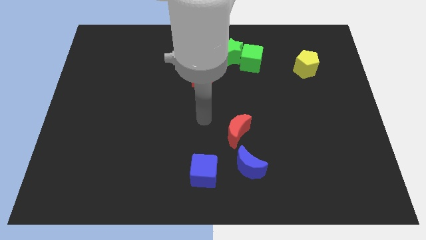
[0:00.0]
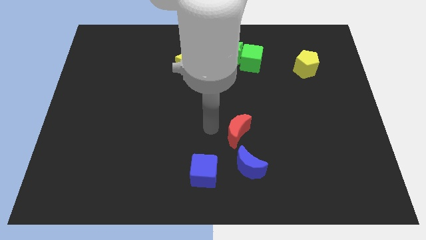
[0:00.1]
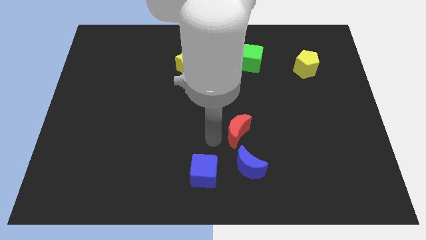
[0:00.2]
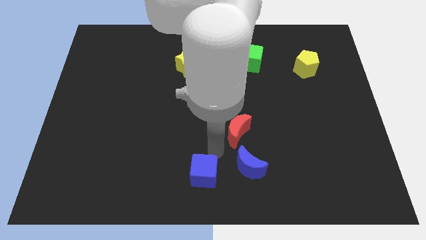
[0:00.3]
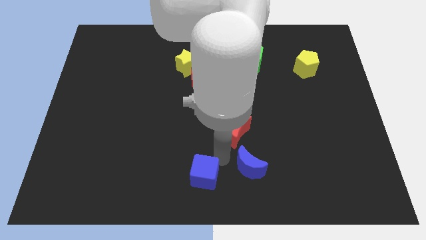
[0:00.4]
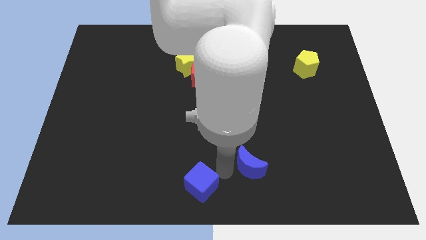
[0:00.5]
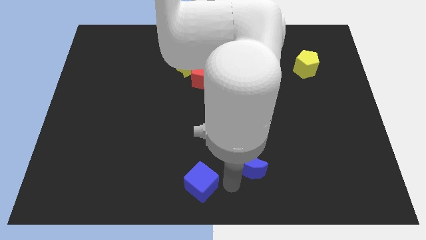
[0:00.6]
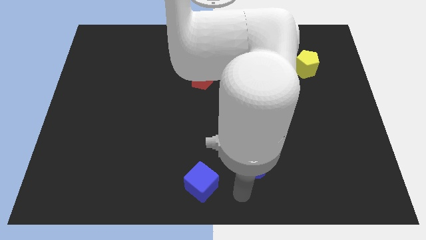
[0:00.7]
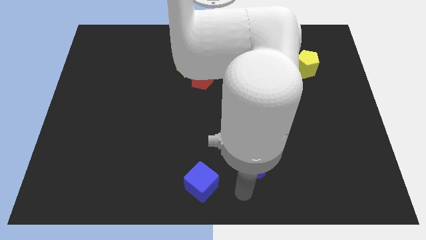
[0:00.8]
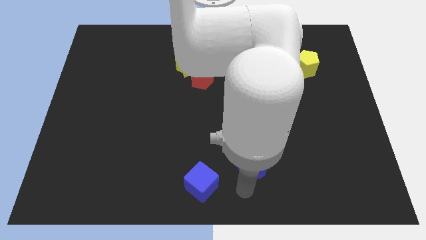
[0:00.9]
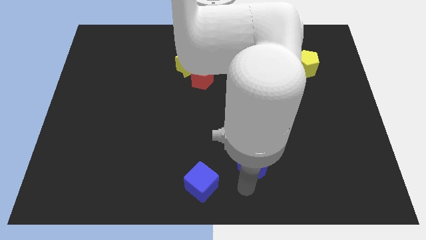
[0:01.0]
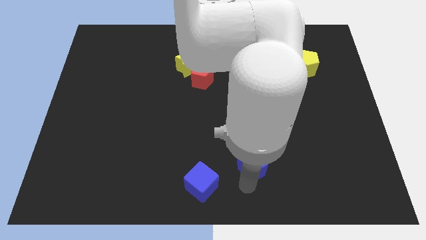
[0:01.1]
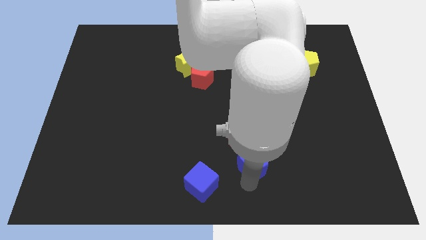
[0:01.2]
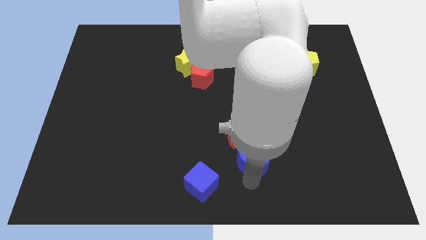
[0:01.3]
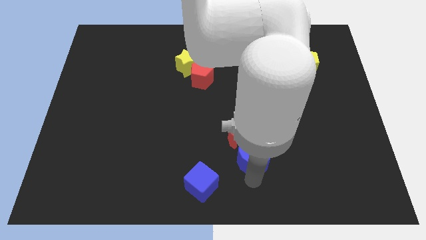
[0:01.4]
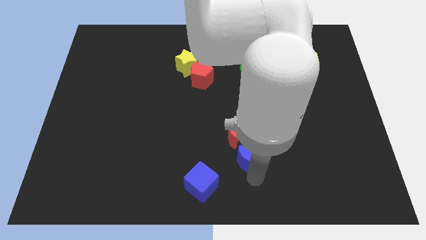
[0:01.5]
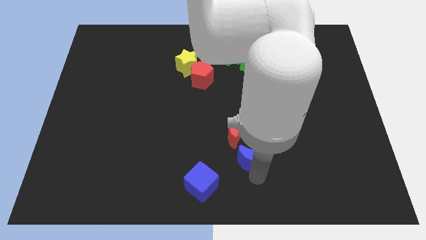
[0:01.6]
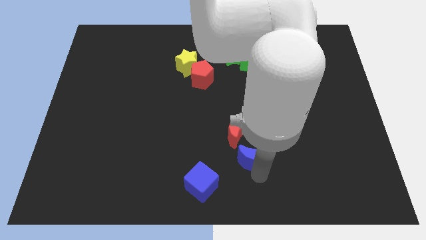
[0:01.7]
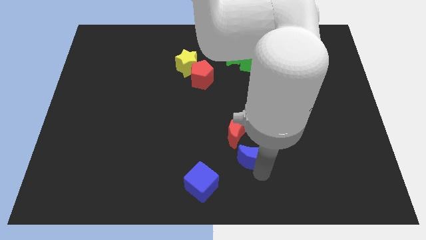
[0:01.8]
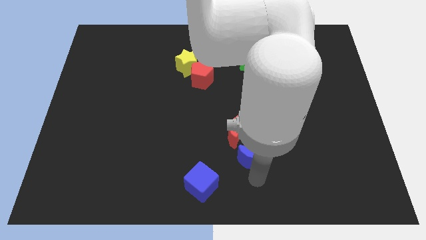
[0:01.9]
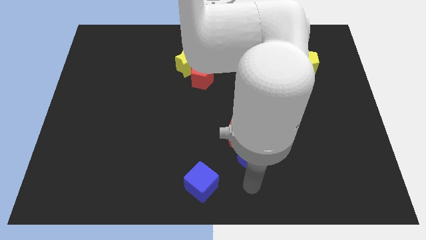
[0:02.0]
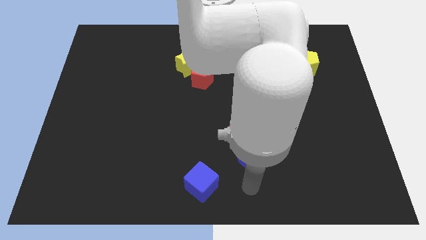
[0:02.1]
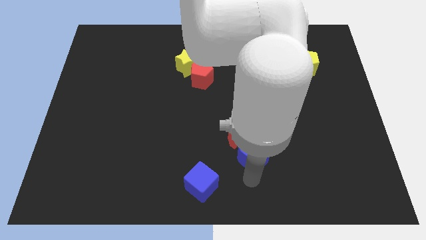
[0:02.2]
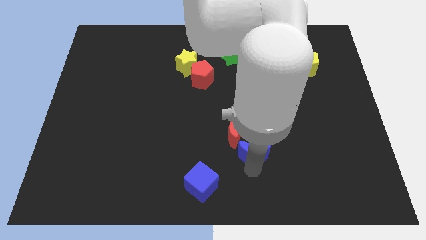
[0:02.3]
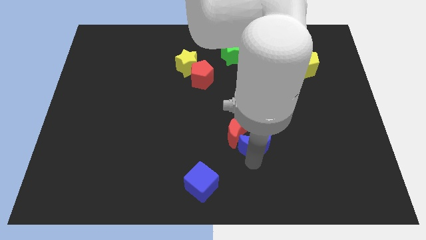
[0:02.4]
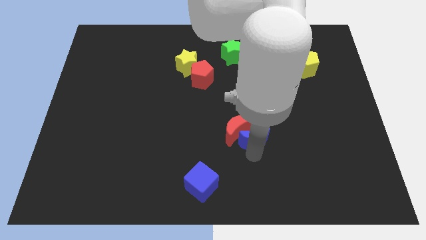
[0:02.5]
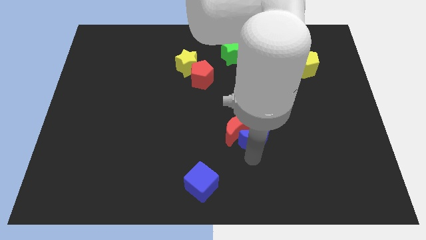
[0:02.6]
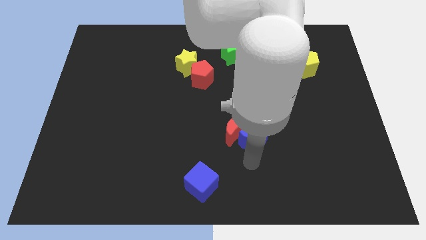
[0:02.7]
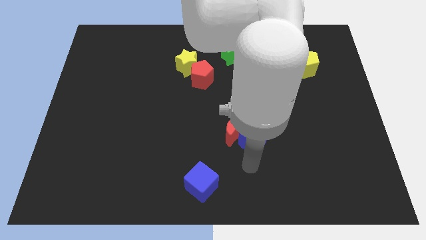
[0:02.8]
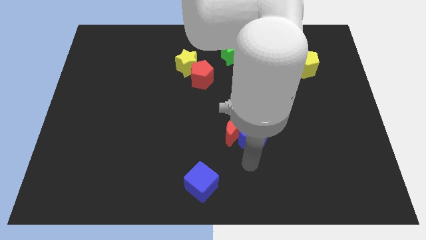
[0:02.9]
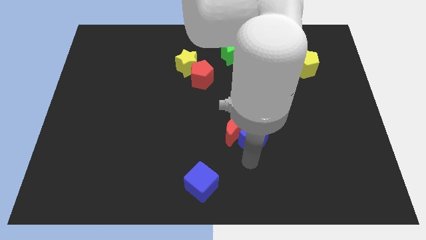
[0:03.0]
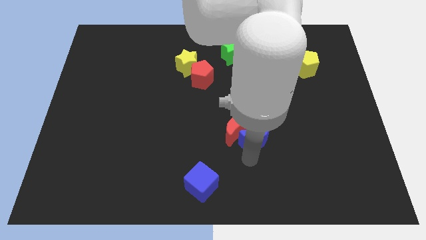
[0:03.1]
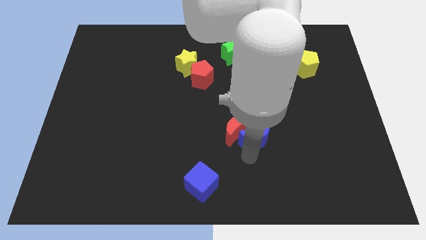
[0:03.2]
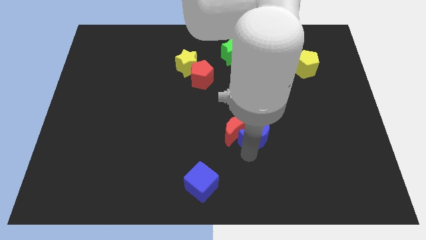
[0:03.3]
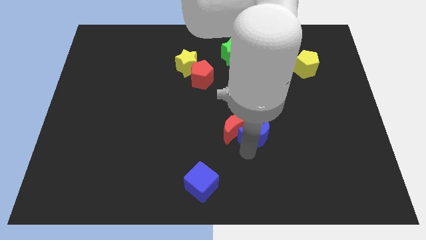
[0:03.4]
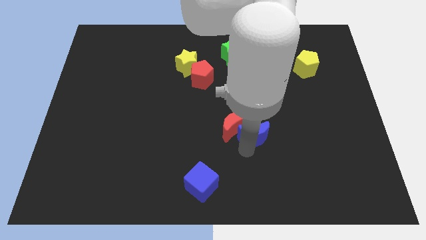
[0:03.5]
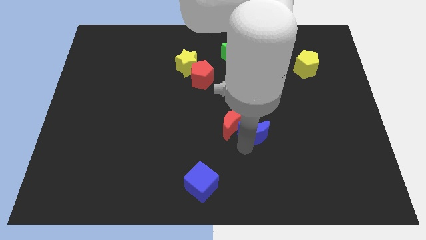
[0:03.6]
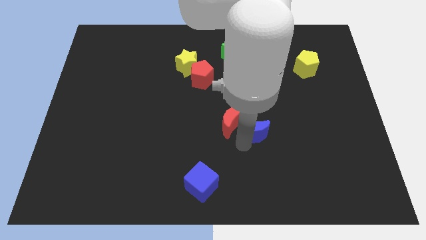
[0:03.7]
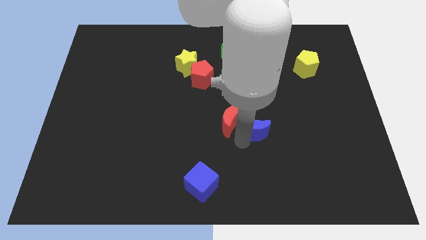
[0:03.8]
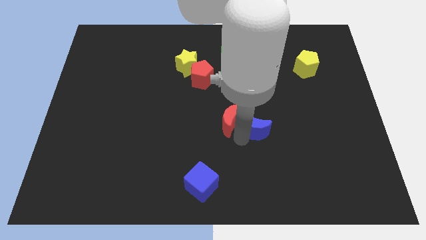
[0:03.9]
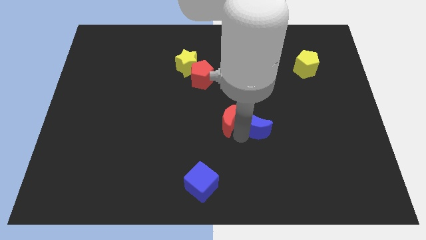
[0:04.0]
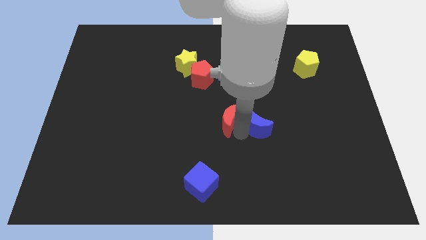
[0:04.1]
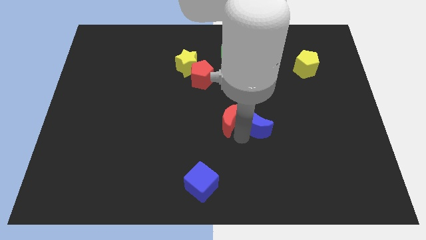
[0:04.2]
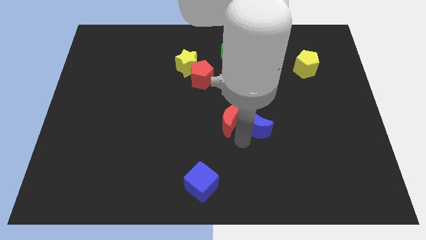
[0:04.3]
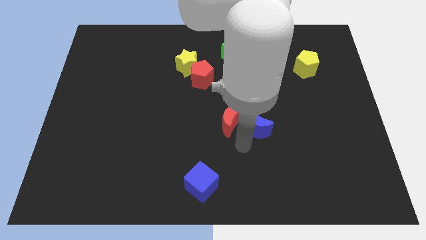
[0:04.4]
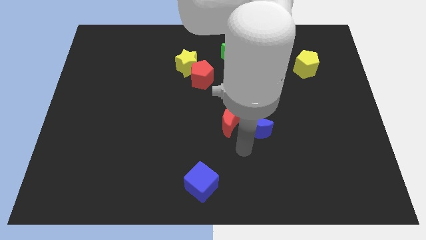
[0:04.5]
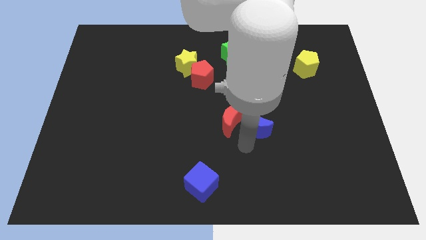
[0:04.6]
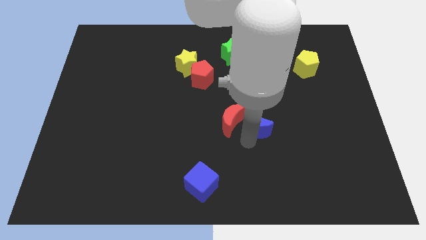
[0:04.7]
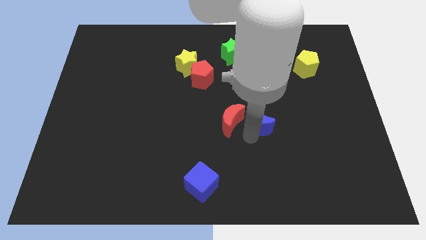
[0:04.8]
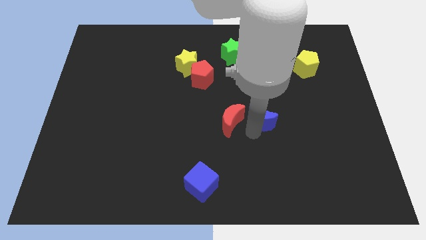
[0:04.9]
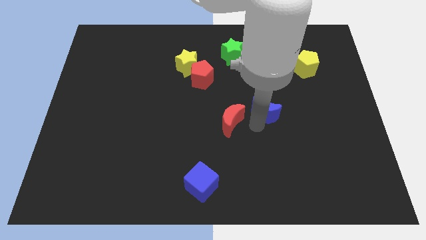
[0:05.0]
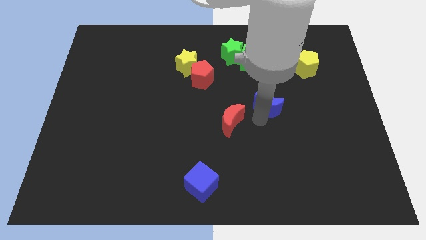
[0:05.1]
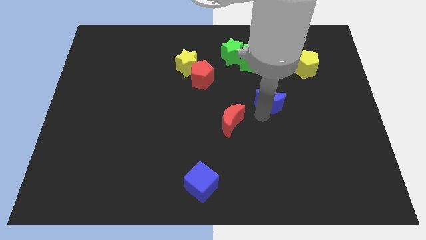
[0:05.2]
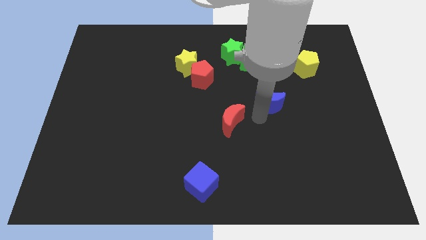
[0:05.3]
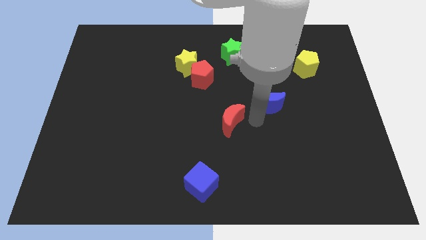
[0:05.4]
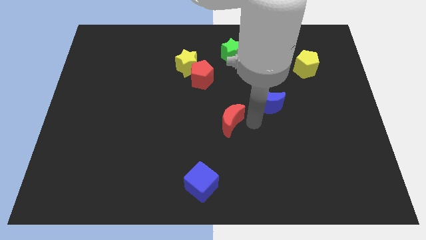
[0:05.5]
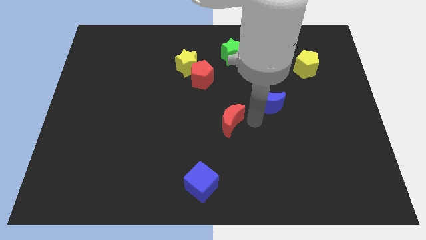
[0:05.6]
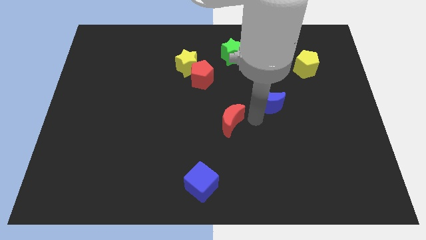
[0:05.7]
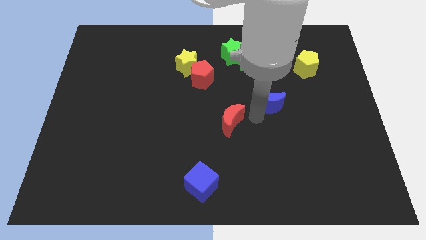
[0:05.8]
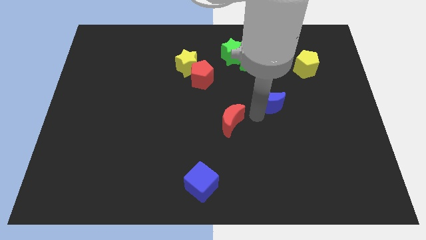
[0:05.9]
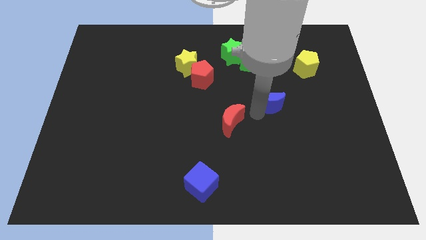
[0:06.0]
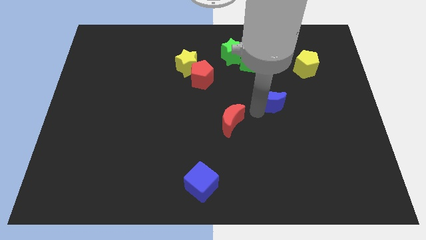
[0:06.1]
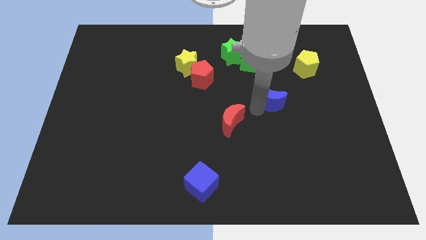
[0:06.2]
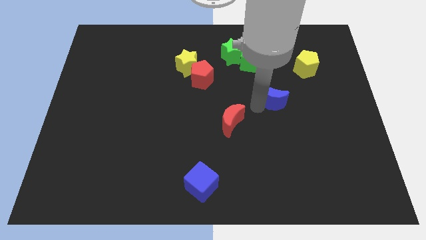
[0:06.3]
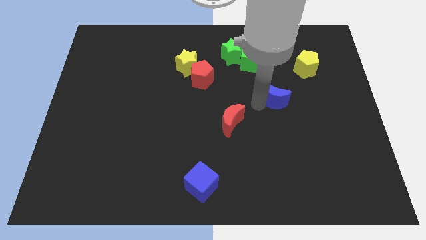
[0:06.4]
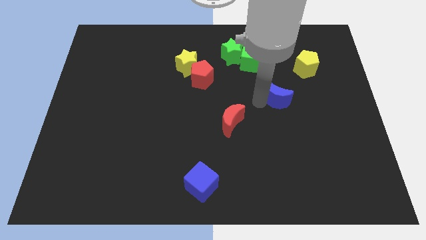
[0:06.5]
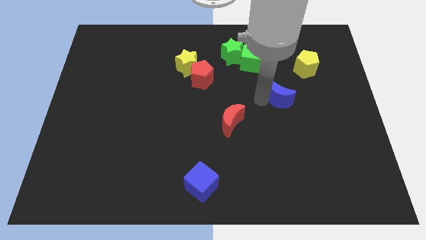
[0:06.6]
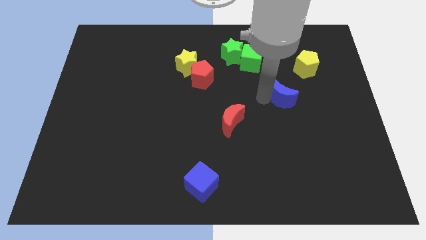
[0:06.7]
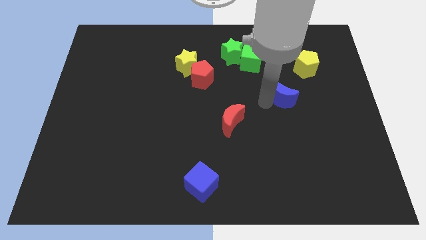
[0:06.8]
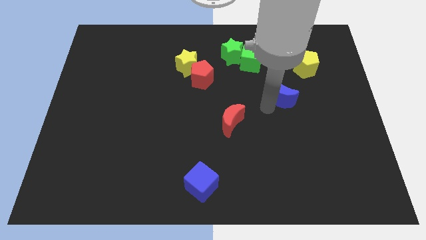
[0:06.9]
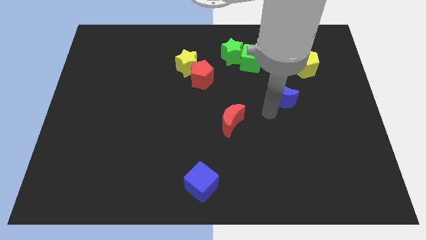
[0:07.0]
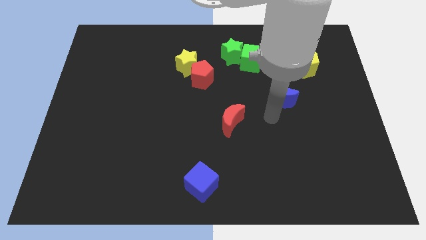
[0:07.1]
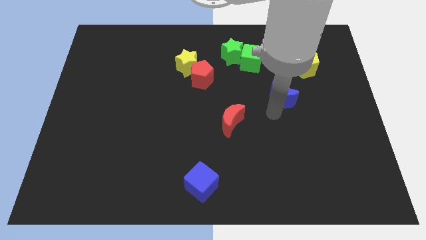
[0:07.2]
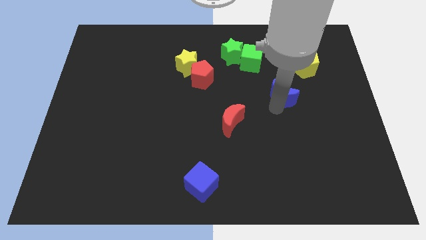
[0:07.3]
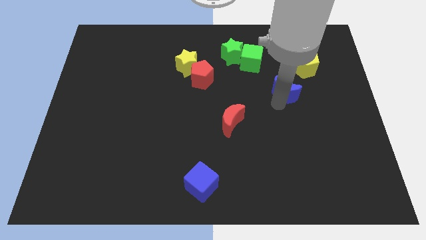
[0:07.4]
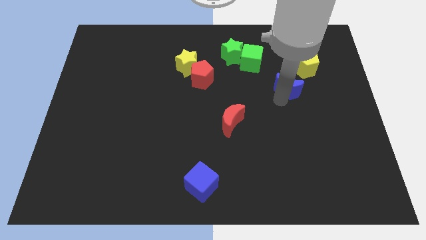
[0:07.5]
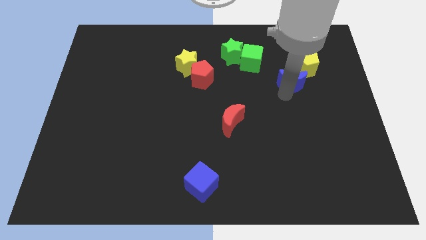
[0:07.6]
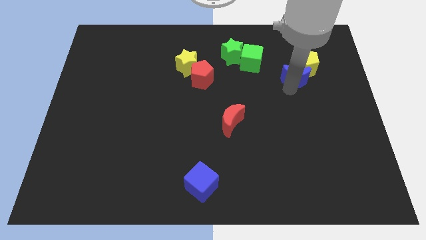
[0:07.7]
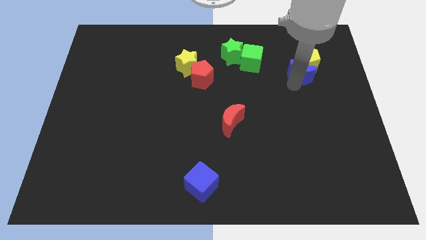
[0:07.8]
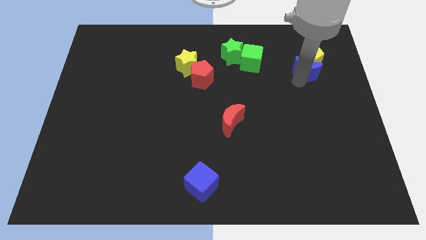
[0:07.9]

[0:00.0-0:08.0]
put the blue moon to the right of the green cube

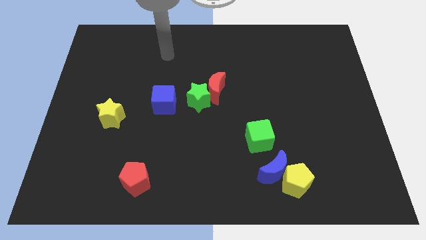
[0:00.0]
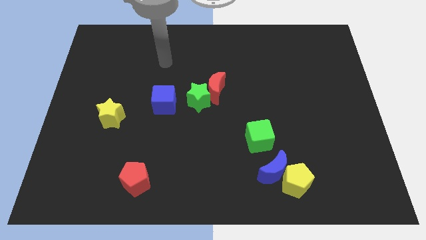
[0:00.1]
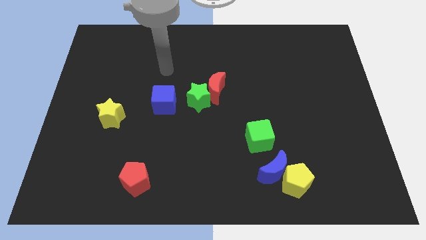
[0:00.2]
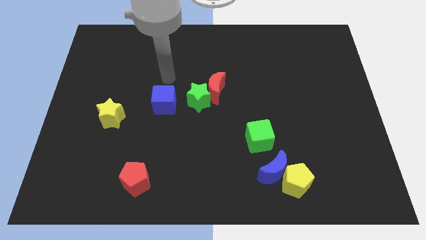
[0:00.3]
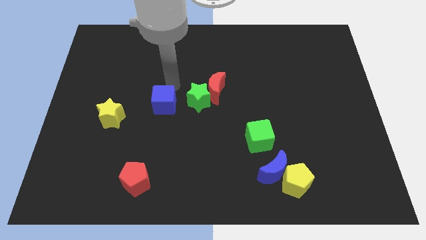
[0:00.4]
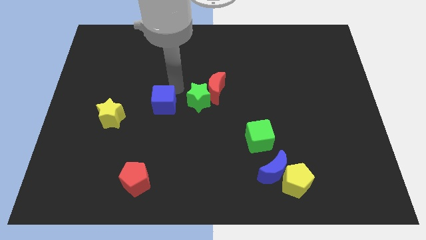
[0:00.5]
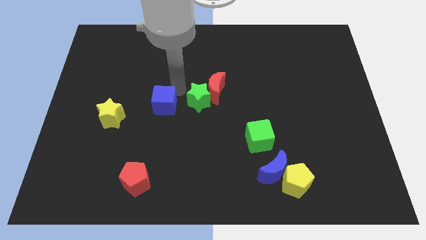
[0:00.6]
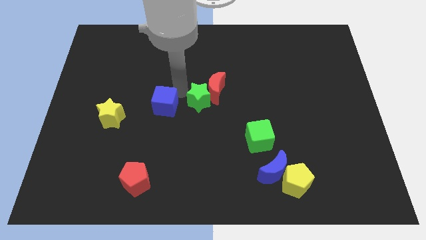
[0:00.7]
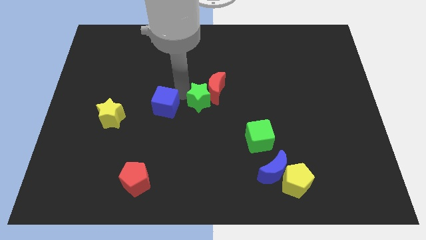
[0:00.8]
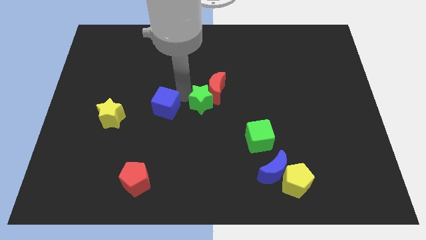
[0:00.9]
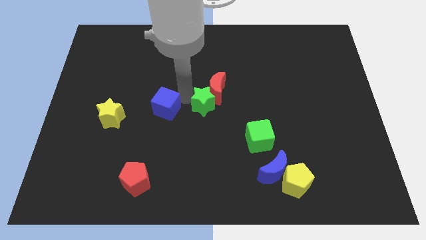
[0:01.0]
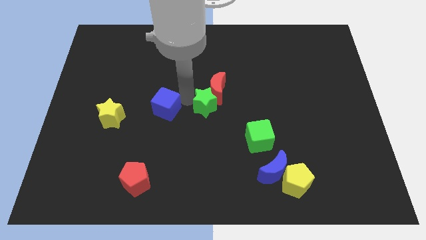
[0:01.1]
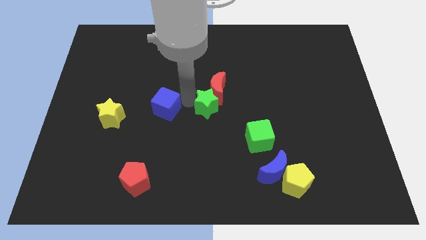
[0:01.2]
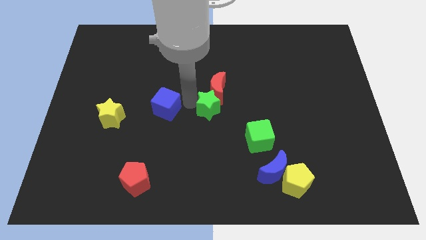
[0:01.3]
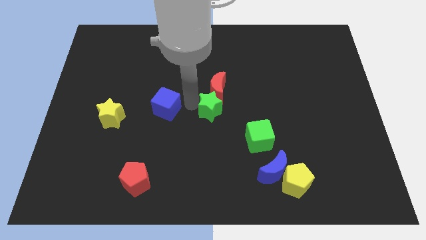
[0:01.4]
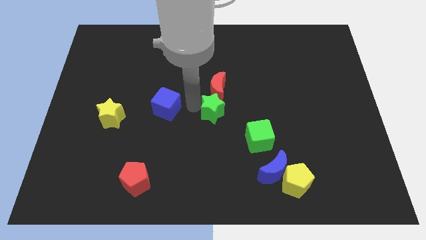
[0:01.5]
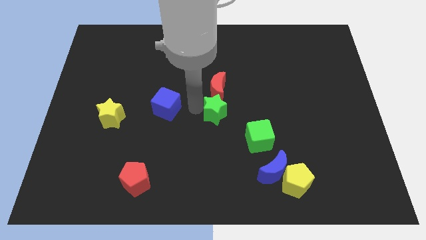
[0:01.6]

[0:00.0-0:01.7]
put the green star to the top left side of the green cube
